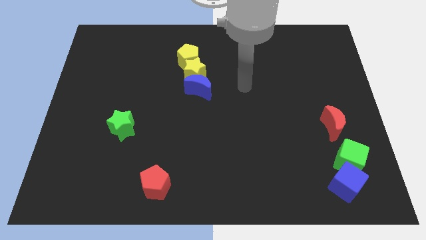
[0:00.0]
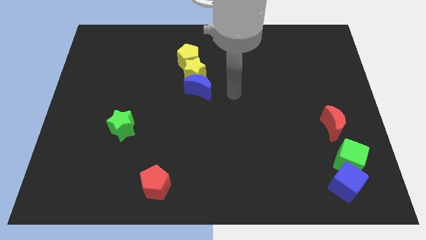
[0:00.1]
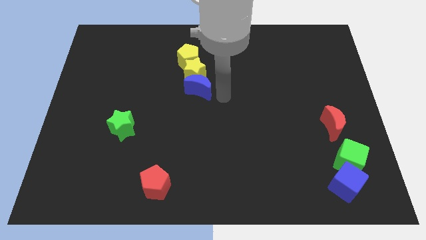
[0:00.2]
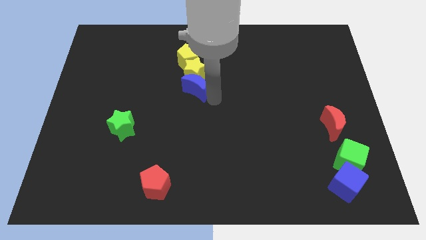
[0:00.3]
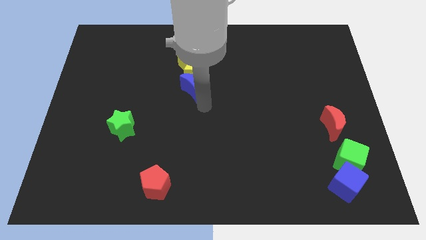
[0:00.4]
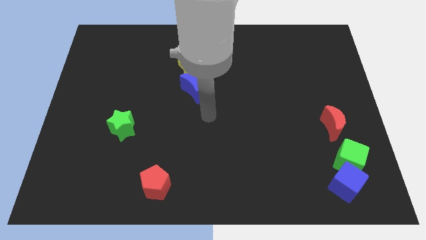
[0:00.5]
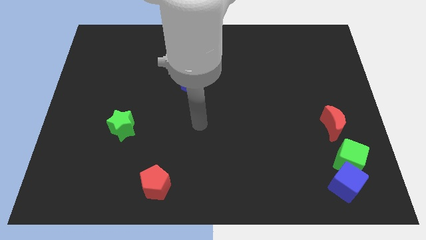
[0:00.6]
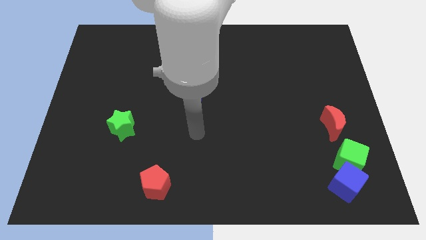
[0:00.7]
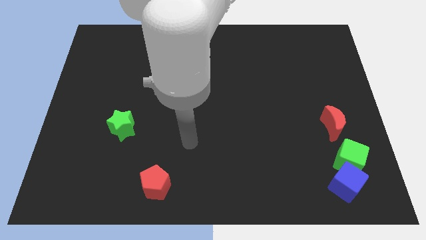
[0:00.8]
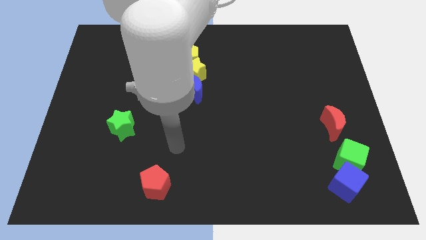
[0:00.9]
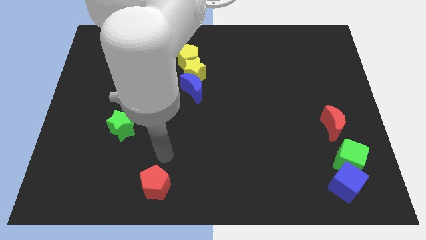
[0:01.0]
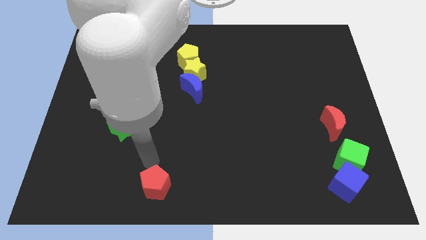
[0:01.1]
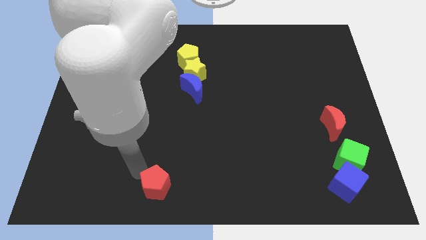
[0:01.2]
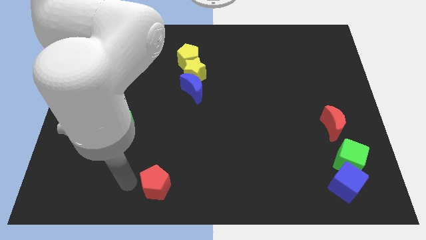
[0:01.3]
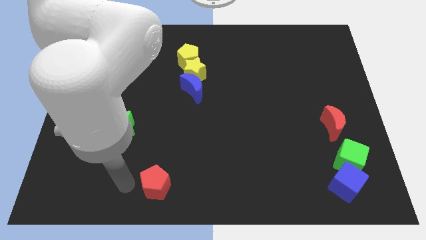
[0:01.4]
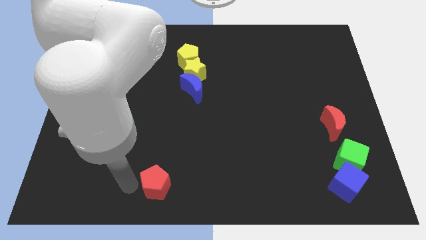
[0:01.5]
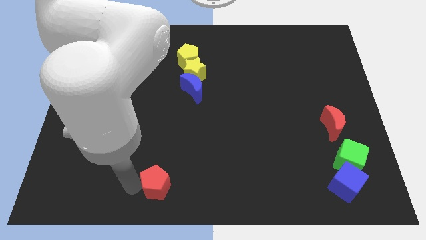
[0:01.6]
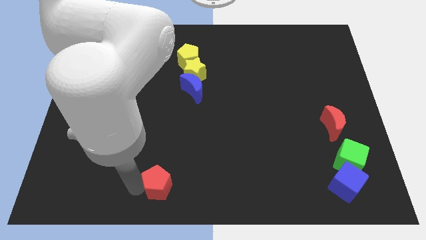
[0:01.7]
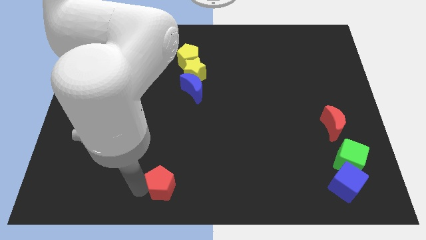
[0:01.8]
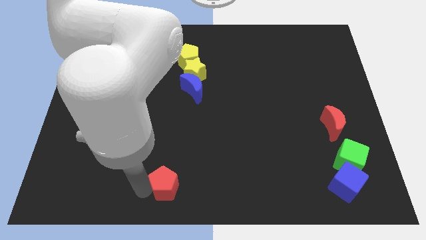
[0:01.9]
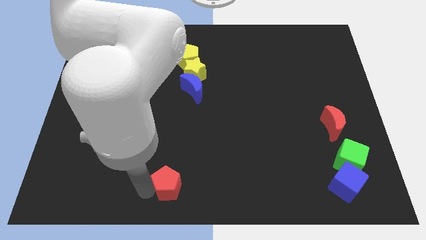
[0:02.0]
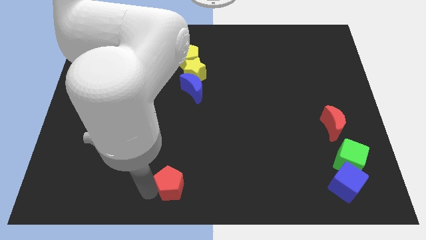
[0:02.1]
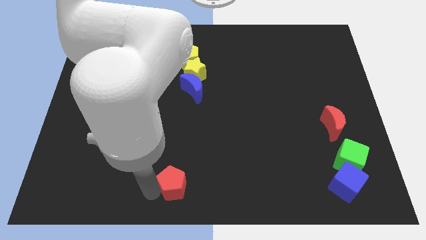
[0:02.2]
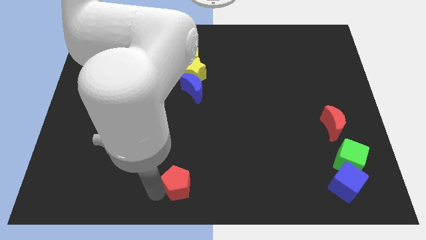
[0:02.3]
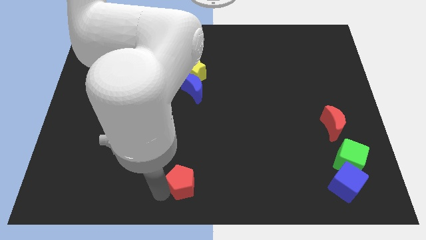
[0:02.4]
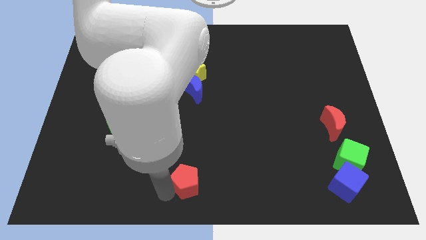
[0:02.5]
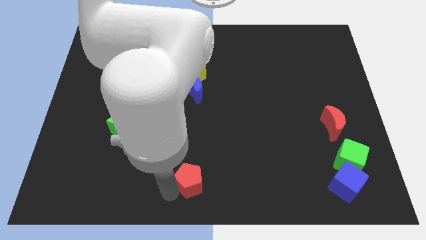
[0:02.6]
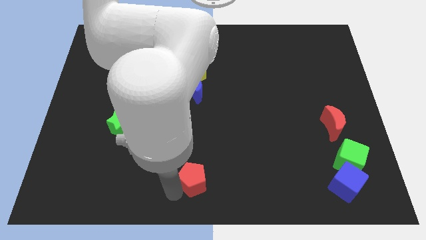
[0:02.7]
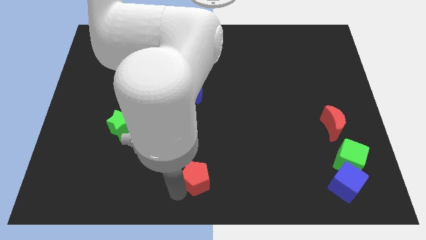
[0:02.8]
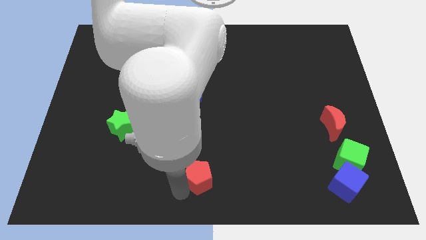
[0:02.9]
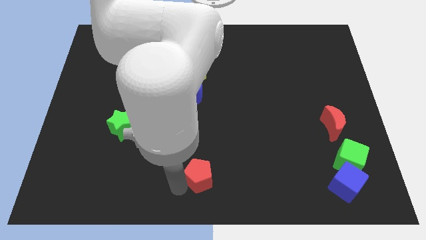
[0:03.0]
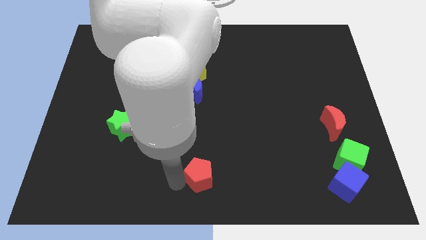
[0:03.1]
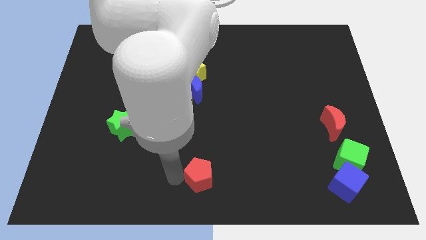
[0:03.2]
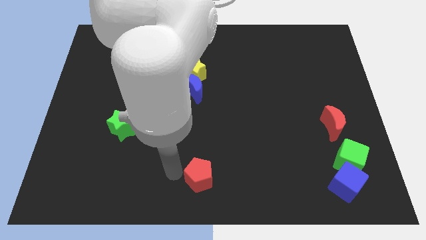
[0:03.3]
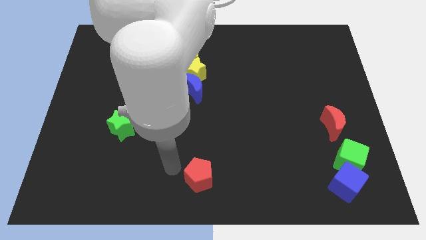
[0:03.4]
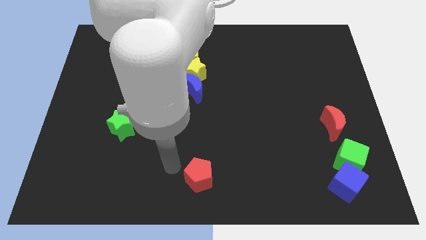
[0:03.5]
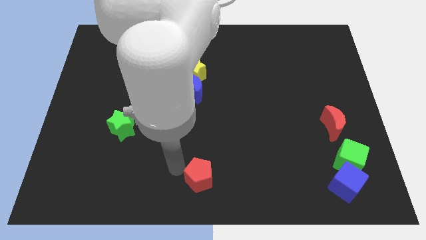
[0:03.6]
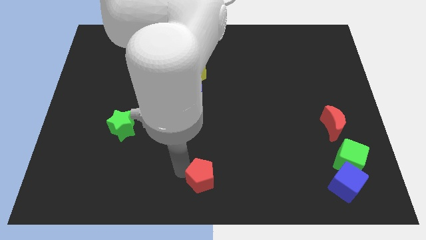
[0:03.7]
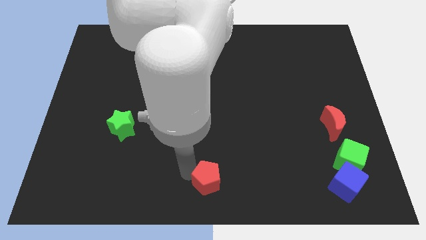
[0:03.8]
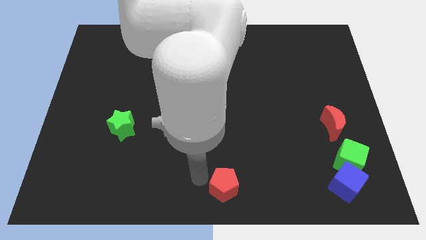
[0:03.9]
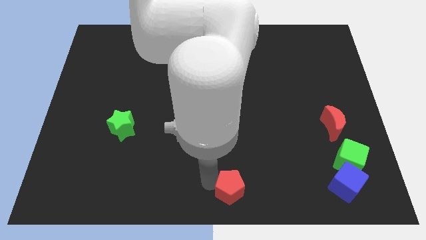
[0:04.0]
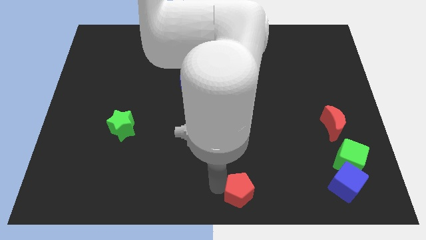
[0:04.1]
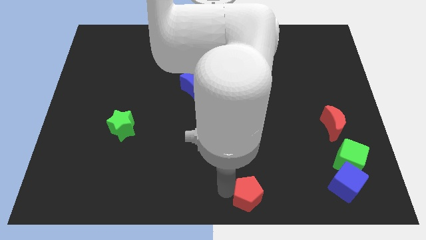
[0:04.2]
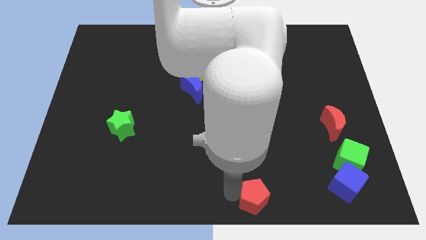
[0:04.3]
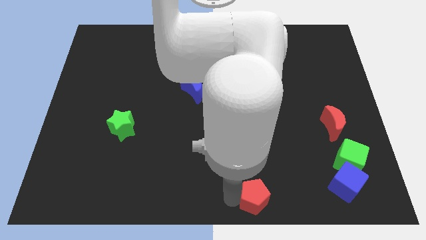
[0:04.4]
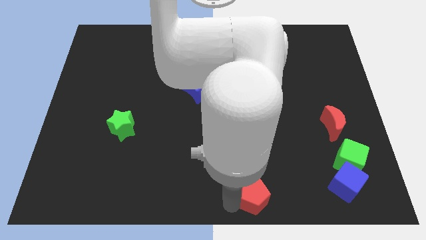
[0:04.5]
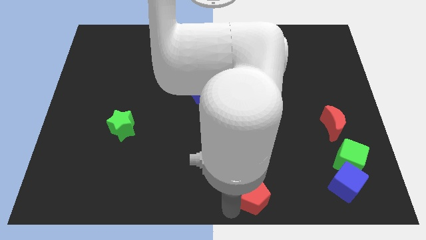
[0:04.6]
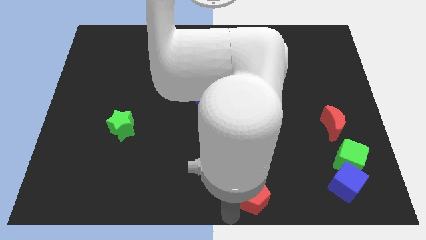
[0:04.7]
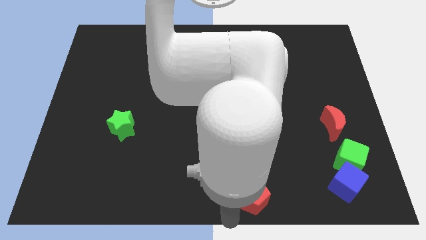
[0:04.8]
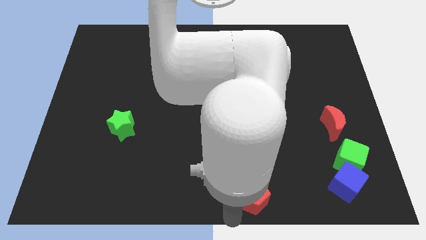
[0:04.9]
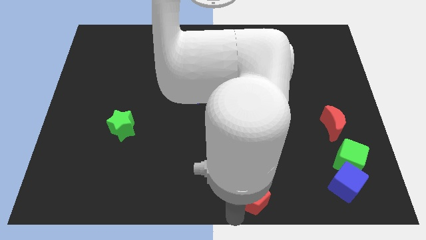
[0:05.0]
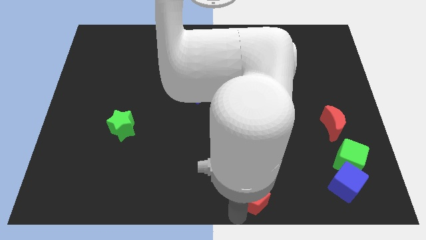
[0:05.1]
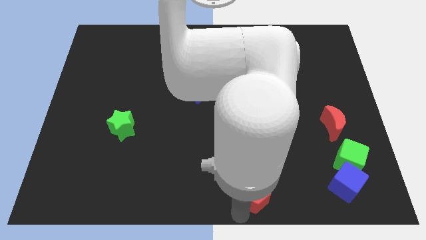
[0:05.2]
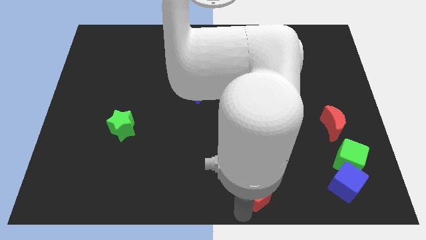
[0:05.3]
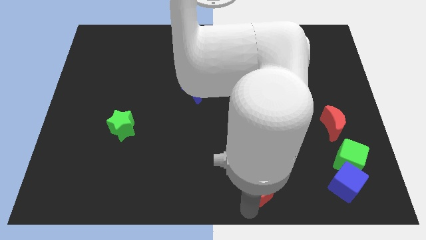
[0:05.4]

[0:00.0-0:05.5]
push the red pentagon to the right

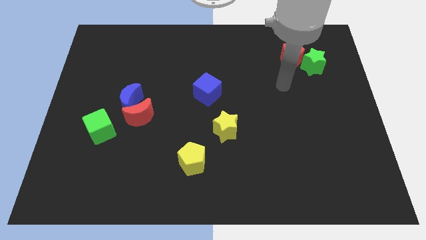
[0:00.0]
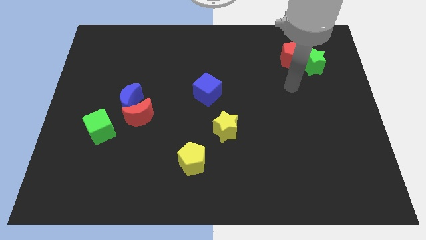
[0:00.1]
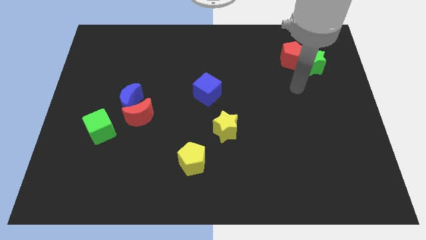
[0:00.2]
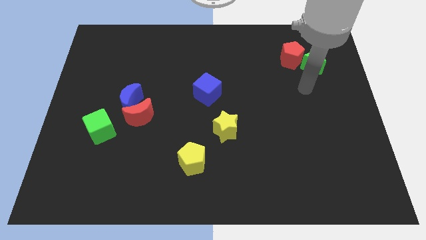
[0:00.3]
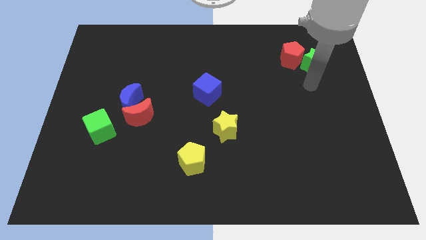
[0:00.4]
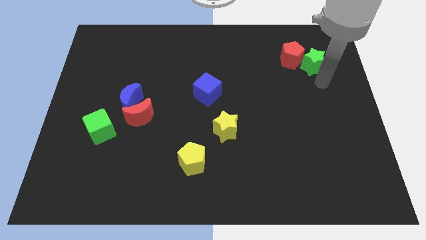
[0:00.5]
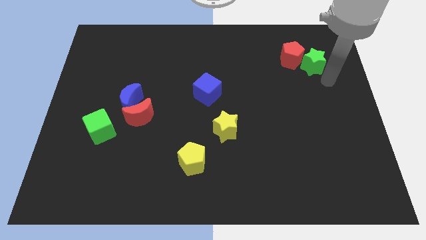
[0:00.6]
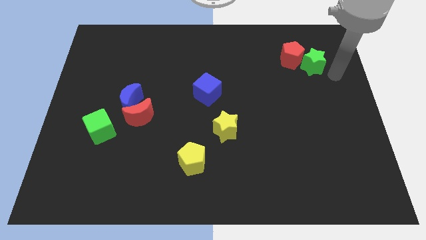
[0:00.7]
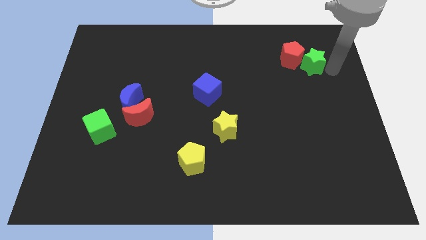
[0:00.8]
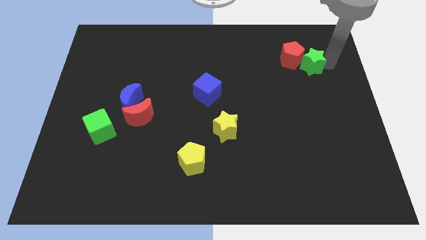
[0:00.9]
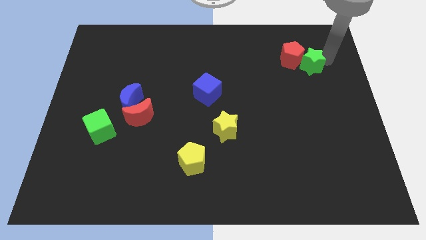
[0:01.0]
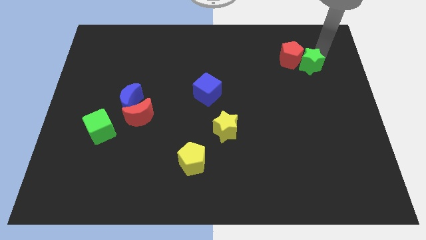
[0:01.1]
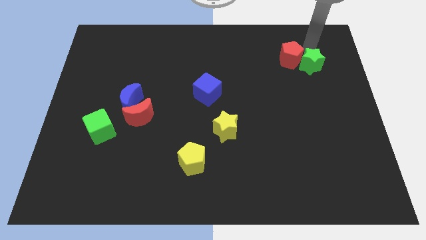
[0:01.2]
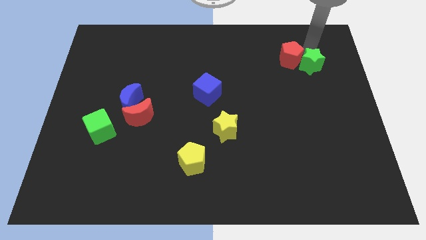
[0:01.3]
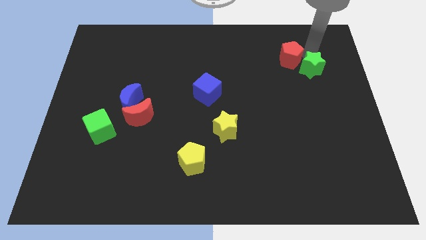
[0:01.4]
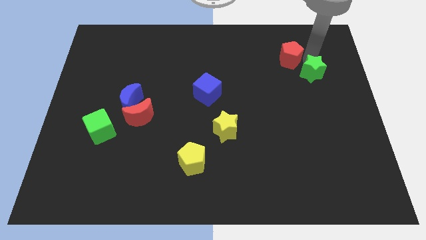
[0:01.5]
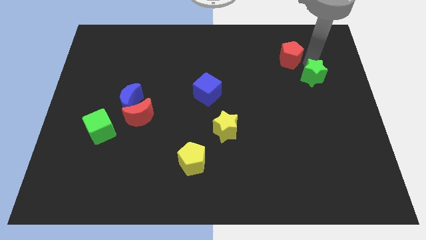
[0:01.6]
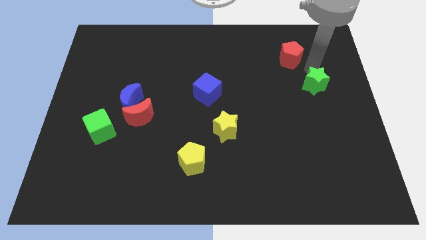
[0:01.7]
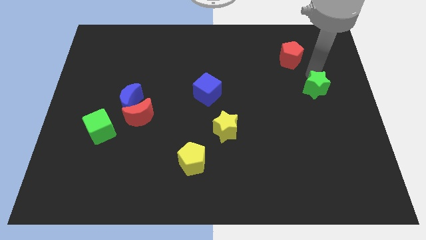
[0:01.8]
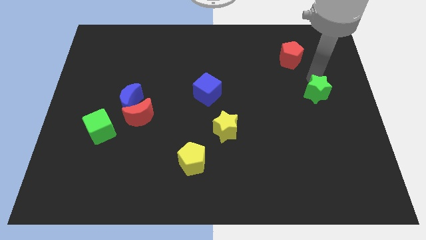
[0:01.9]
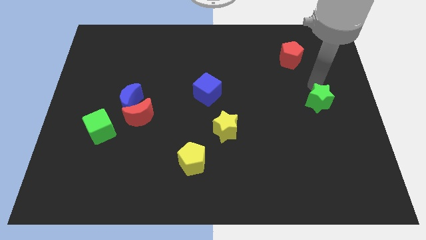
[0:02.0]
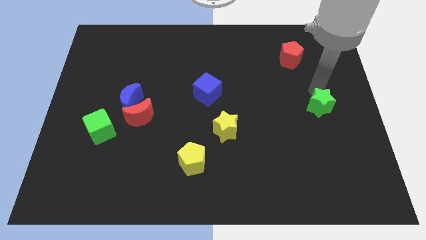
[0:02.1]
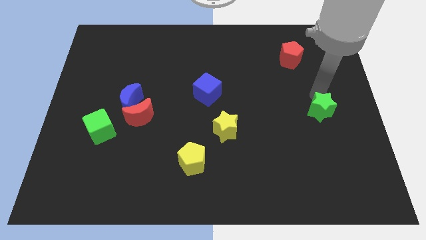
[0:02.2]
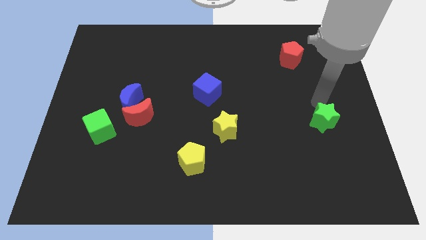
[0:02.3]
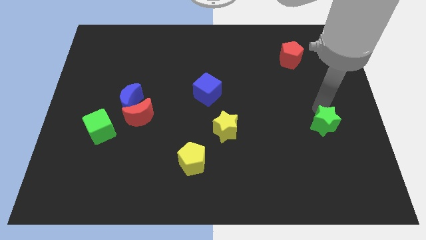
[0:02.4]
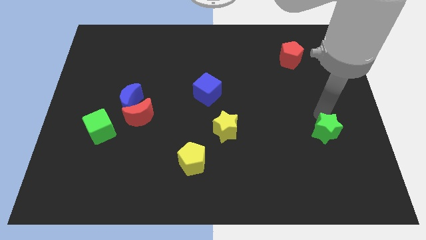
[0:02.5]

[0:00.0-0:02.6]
slide the green star down

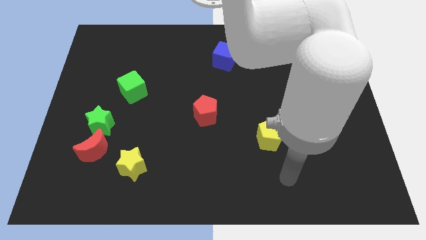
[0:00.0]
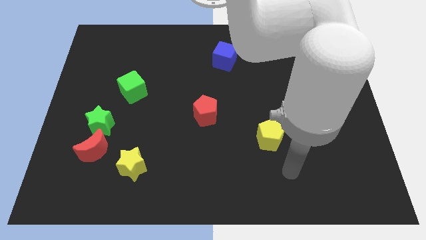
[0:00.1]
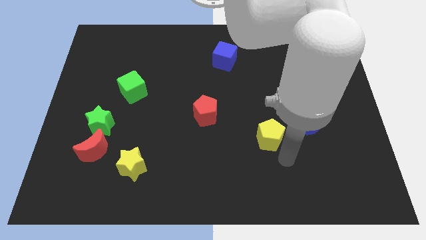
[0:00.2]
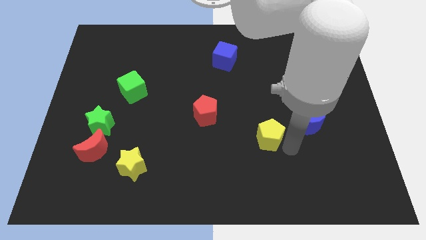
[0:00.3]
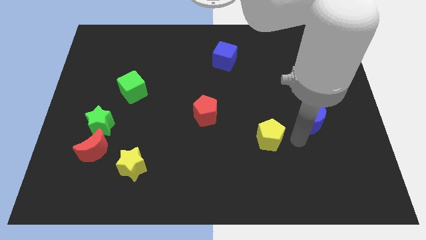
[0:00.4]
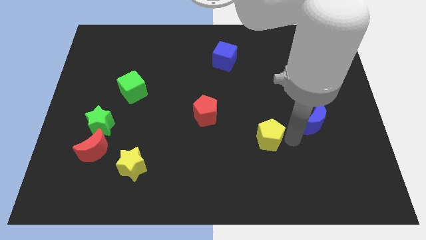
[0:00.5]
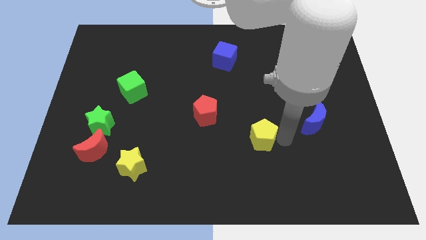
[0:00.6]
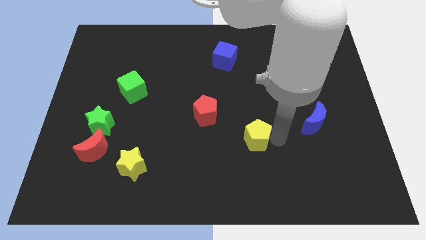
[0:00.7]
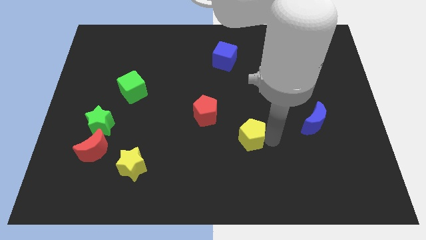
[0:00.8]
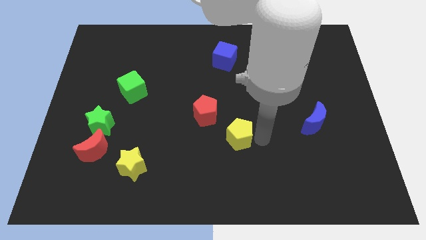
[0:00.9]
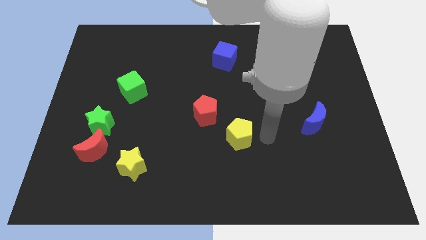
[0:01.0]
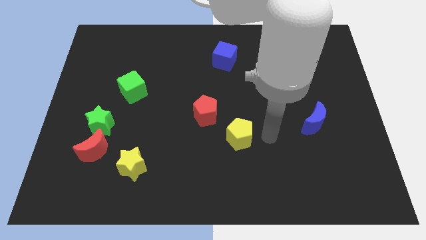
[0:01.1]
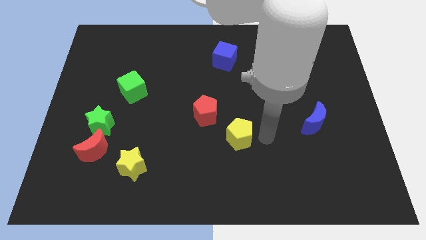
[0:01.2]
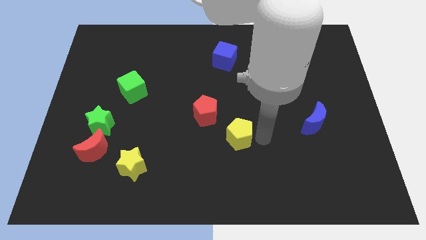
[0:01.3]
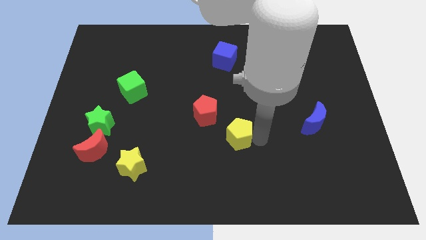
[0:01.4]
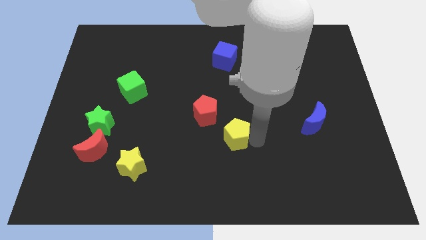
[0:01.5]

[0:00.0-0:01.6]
slide the yellow pentagon to the left slightly
